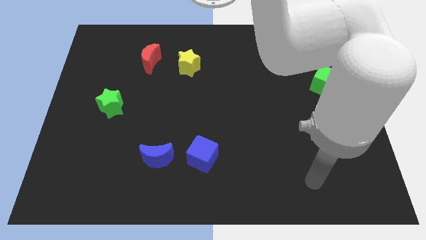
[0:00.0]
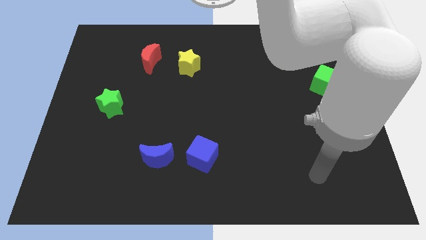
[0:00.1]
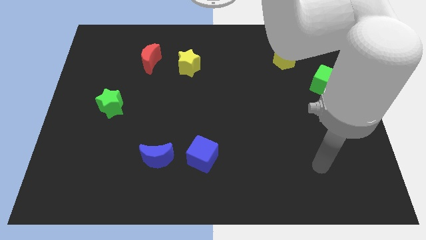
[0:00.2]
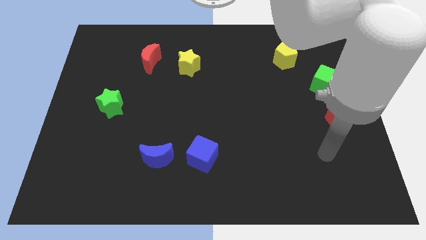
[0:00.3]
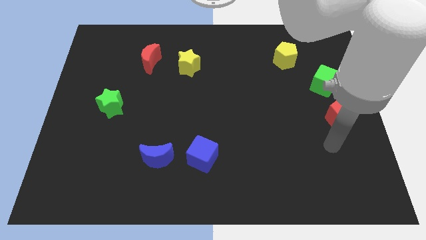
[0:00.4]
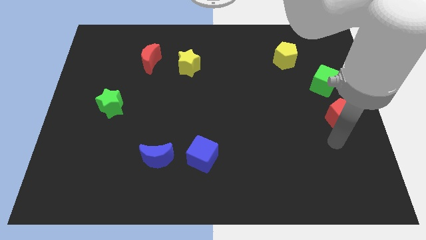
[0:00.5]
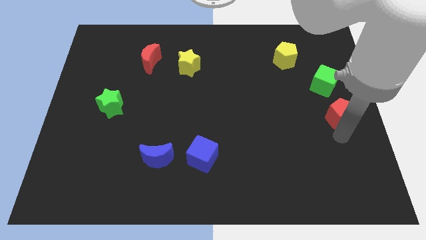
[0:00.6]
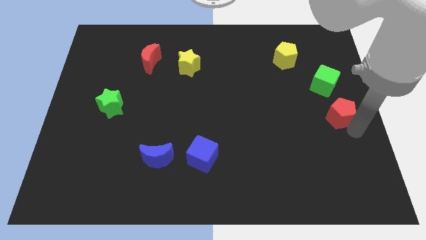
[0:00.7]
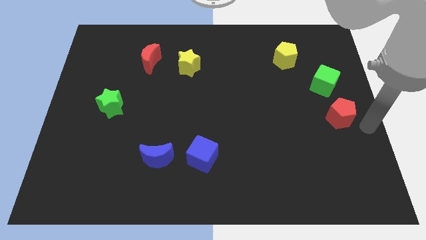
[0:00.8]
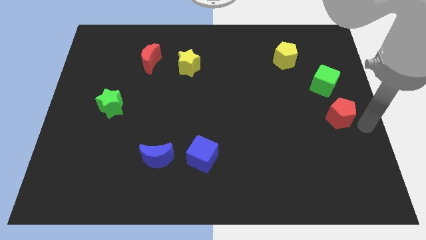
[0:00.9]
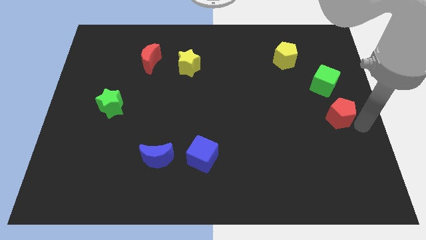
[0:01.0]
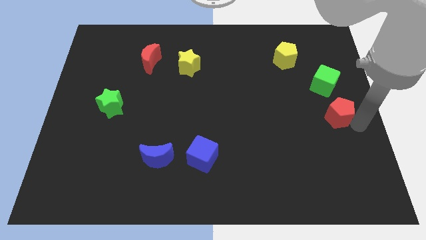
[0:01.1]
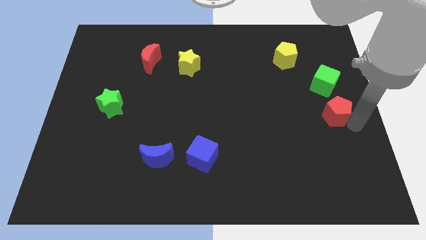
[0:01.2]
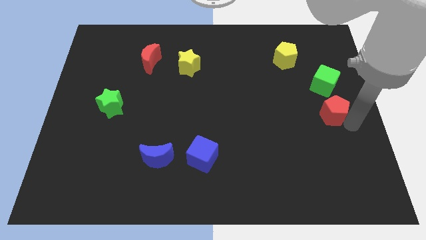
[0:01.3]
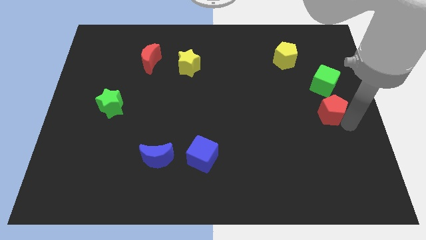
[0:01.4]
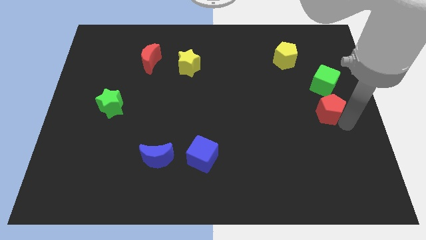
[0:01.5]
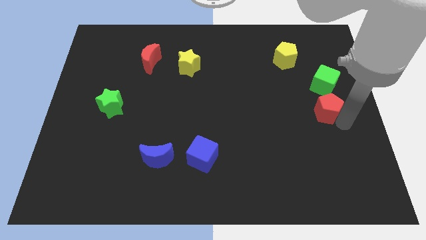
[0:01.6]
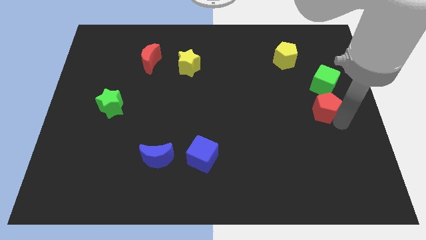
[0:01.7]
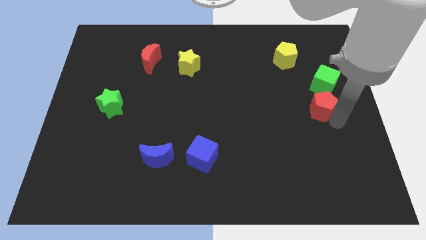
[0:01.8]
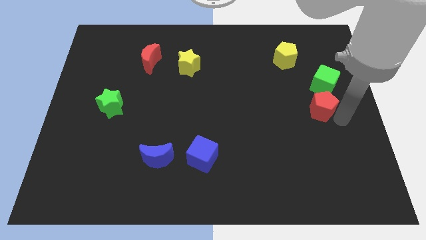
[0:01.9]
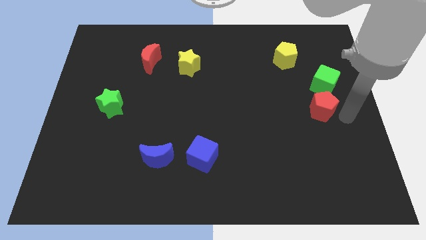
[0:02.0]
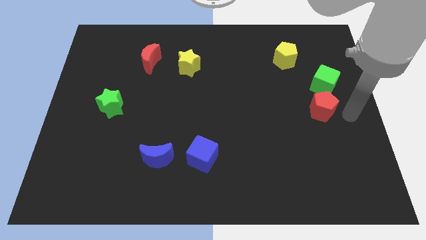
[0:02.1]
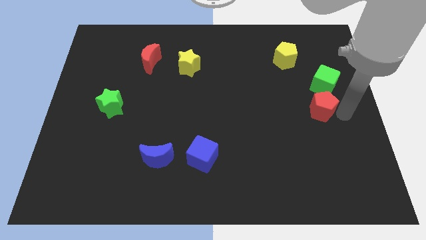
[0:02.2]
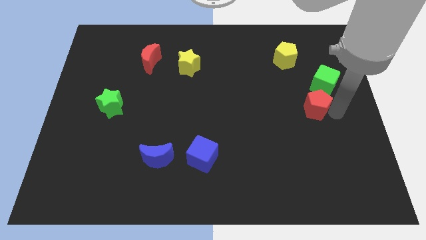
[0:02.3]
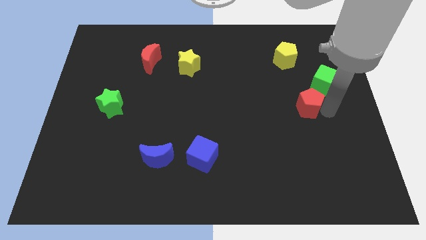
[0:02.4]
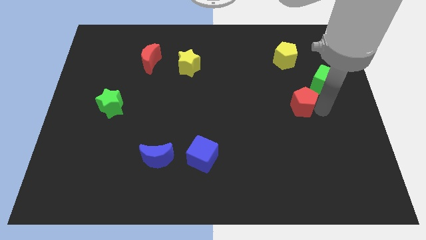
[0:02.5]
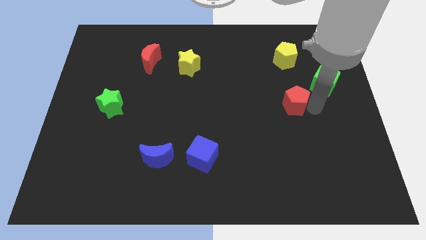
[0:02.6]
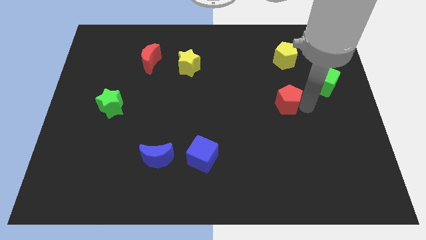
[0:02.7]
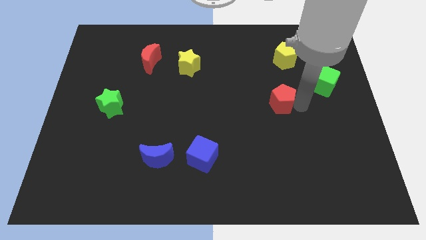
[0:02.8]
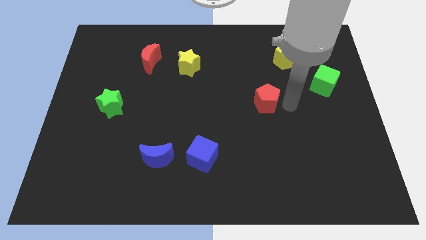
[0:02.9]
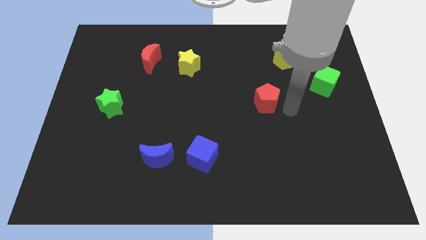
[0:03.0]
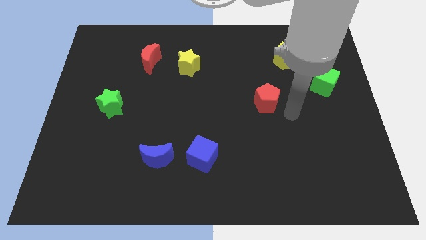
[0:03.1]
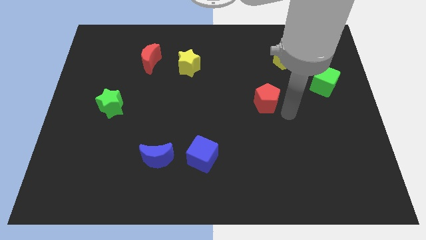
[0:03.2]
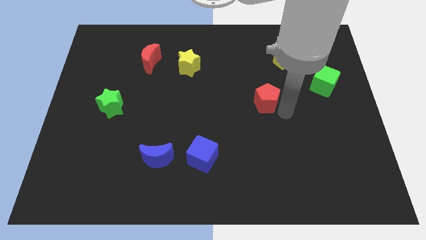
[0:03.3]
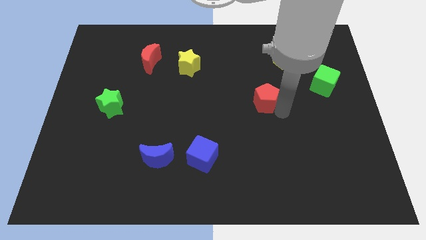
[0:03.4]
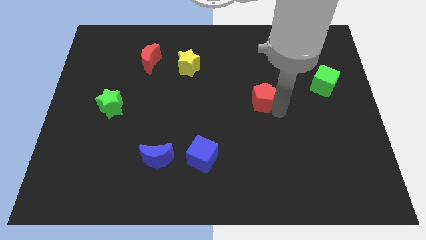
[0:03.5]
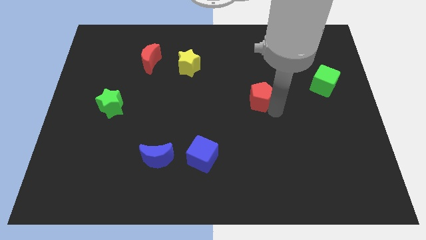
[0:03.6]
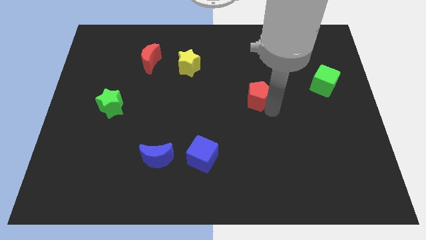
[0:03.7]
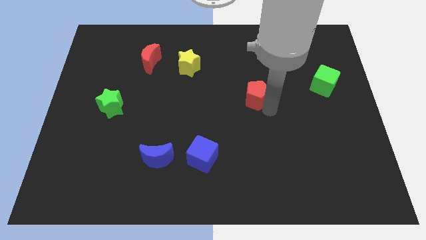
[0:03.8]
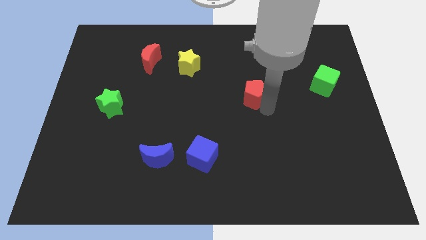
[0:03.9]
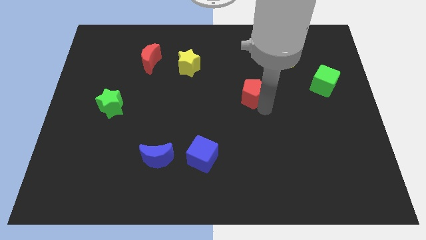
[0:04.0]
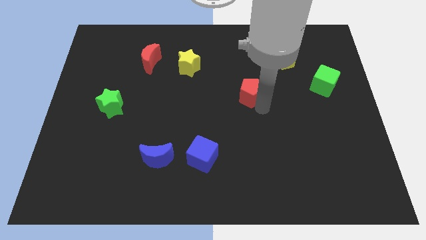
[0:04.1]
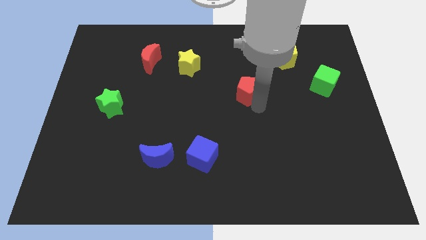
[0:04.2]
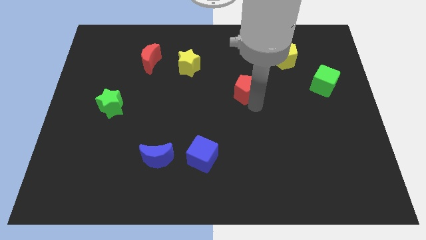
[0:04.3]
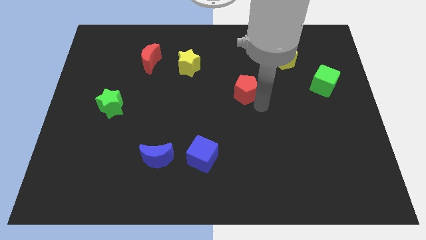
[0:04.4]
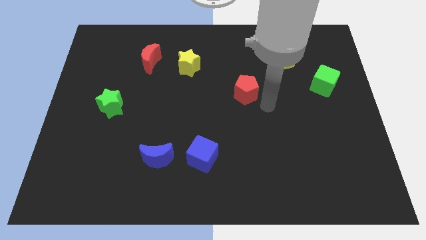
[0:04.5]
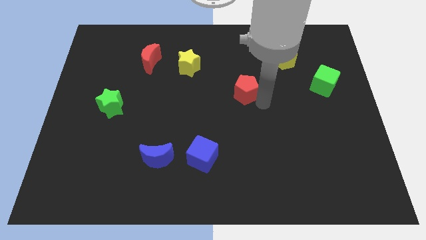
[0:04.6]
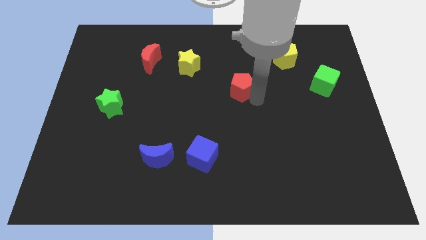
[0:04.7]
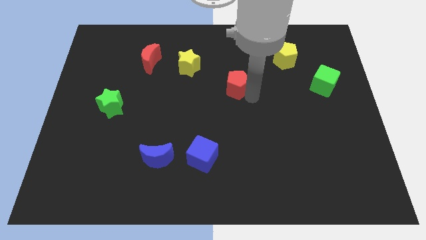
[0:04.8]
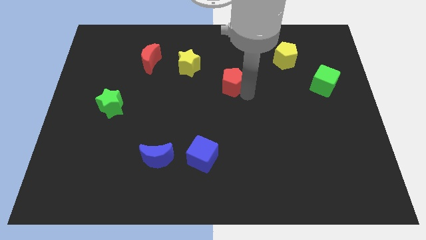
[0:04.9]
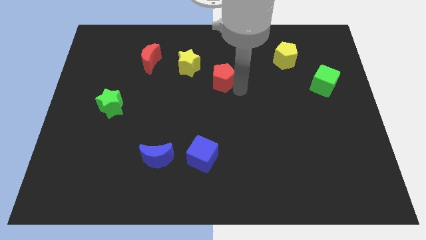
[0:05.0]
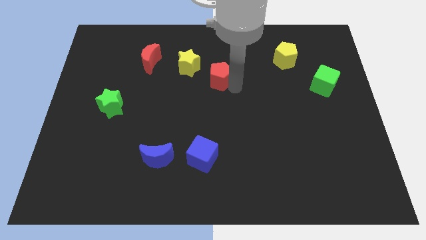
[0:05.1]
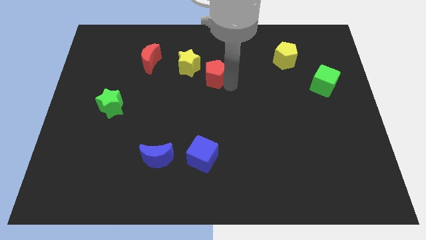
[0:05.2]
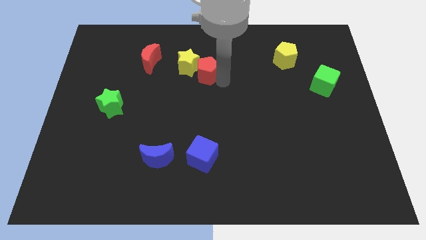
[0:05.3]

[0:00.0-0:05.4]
put the red pentagon towards the yellow star
